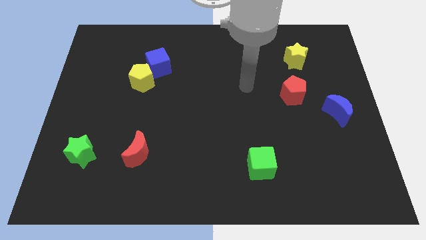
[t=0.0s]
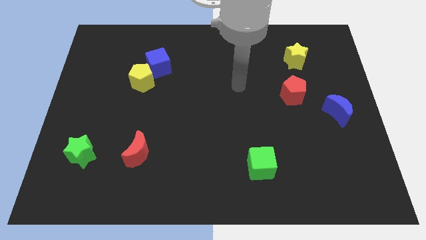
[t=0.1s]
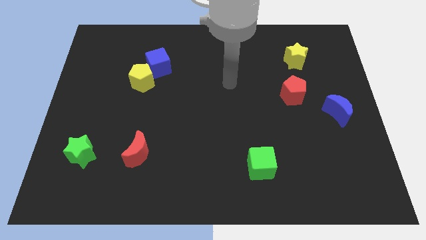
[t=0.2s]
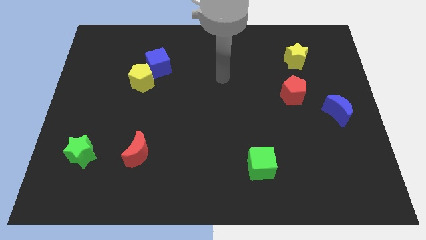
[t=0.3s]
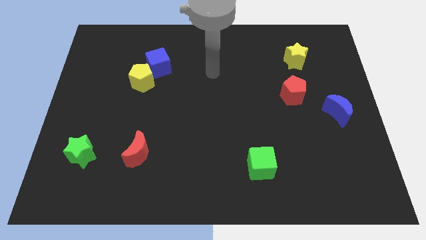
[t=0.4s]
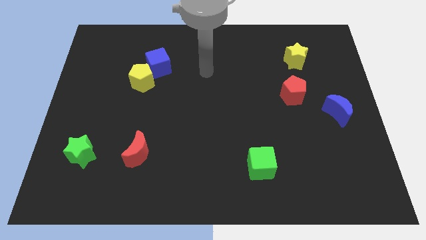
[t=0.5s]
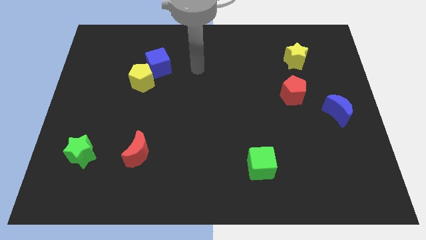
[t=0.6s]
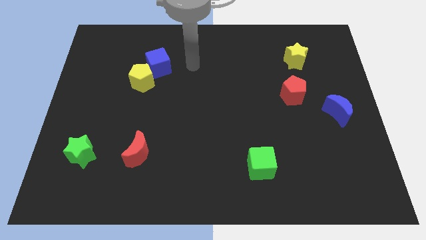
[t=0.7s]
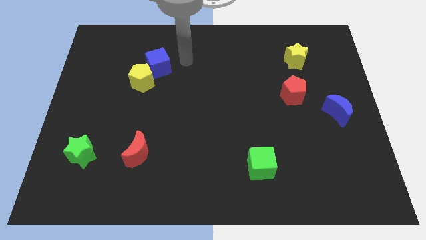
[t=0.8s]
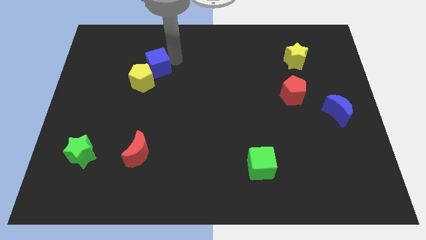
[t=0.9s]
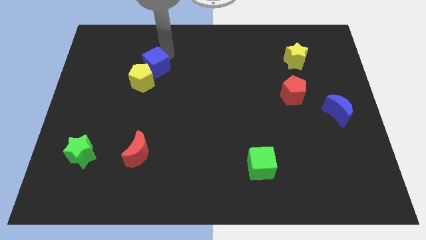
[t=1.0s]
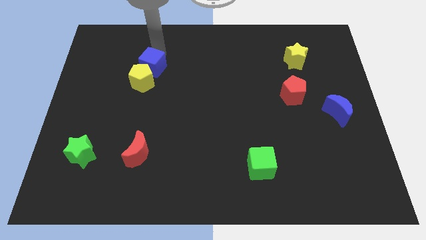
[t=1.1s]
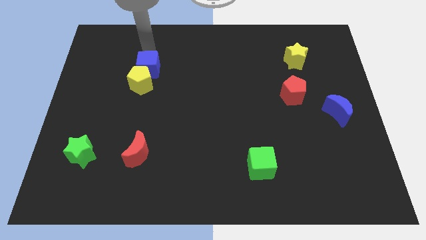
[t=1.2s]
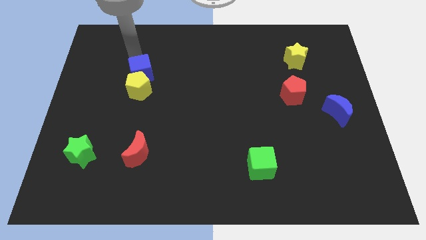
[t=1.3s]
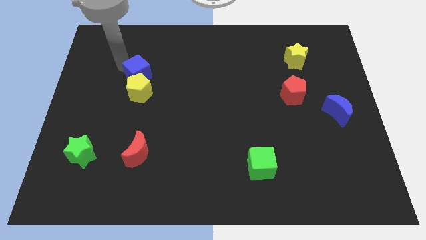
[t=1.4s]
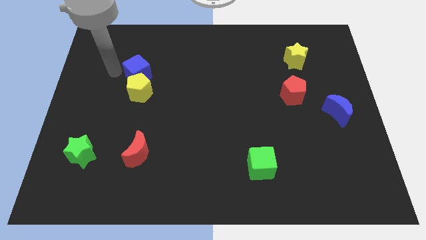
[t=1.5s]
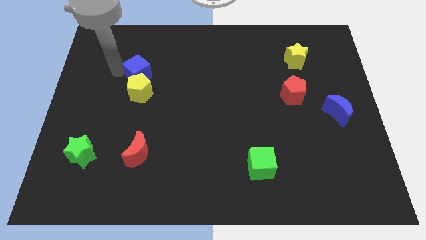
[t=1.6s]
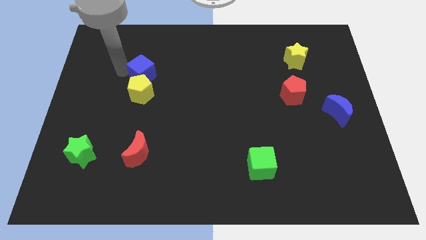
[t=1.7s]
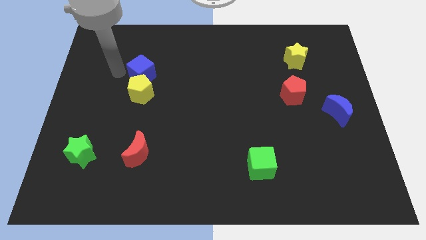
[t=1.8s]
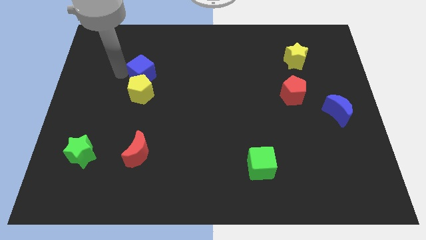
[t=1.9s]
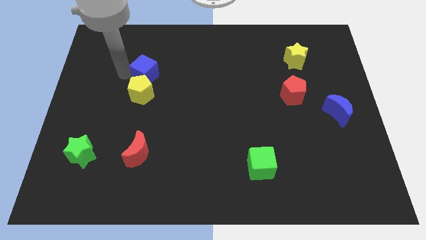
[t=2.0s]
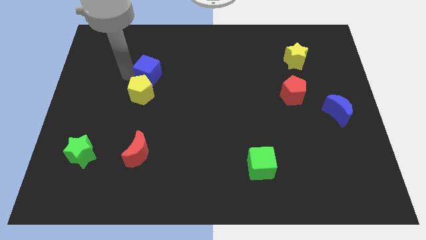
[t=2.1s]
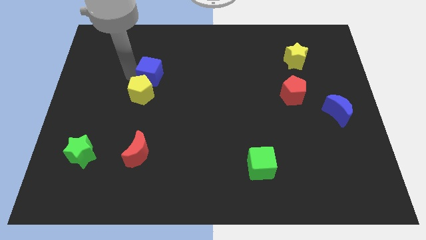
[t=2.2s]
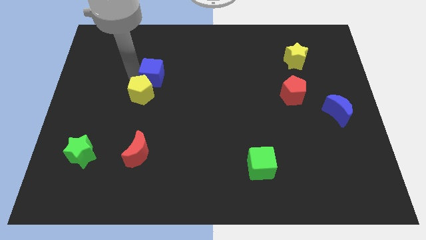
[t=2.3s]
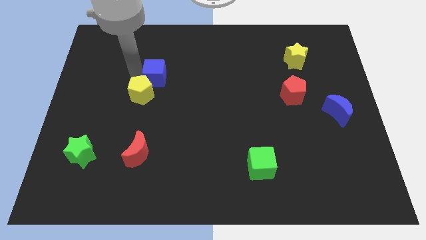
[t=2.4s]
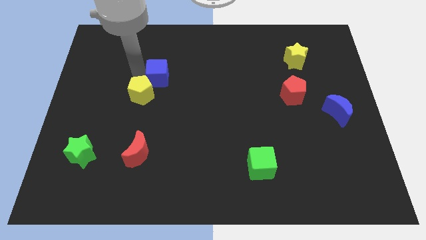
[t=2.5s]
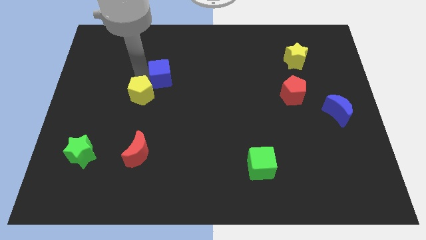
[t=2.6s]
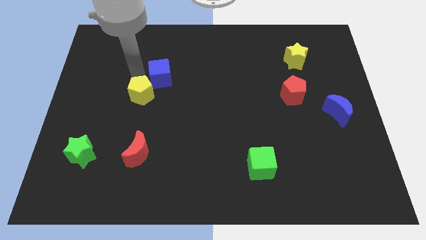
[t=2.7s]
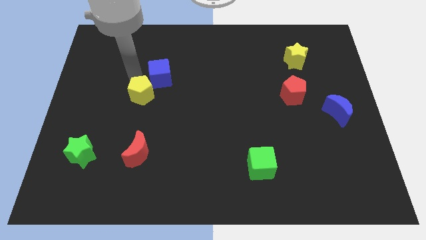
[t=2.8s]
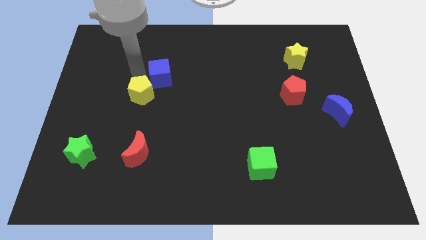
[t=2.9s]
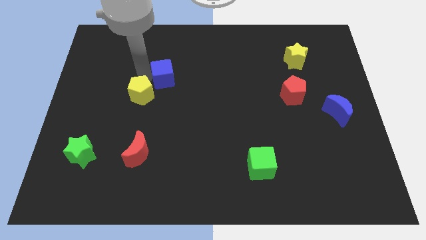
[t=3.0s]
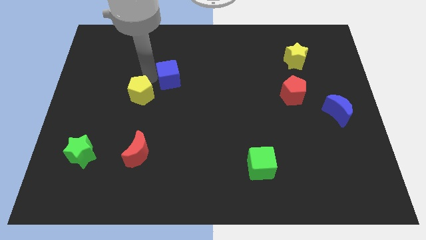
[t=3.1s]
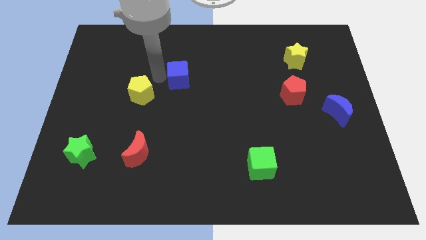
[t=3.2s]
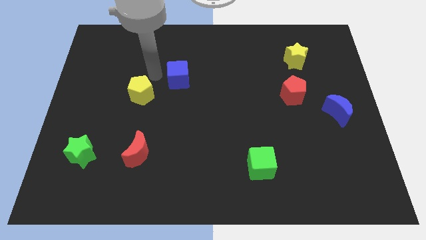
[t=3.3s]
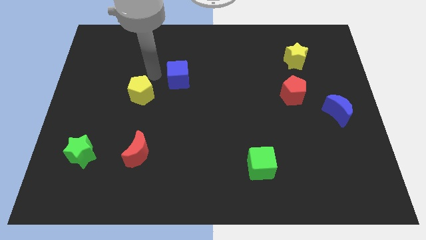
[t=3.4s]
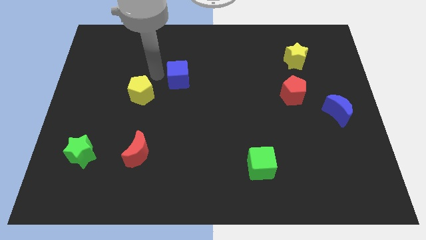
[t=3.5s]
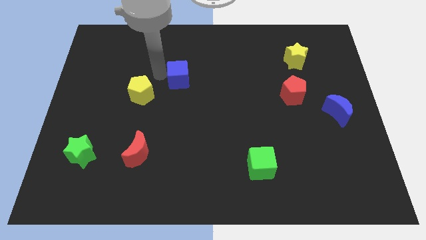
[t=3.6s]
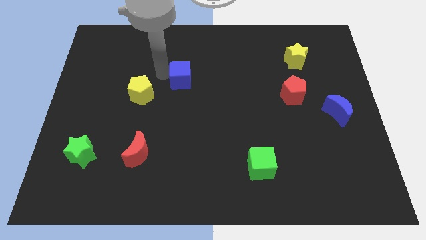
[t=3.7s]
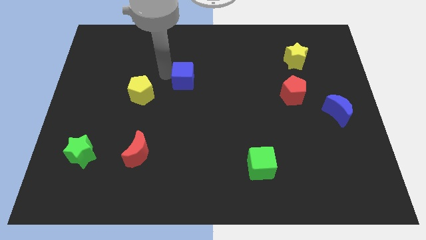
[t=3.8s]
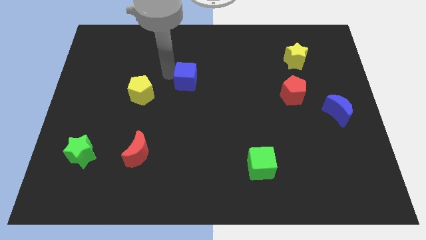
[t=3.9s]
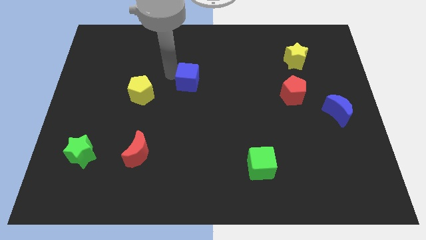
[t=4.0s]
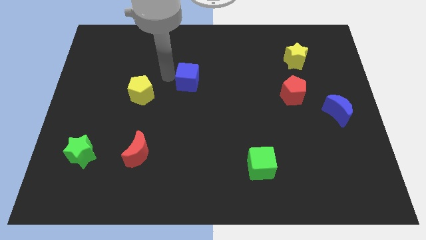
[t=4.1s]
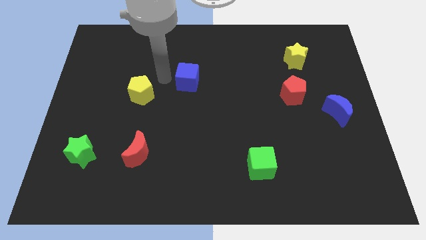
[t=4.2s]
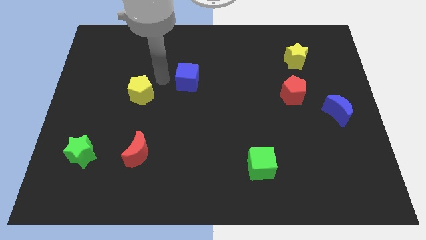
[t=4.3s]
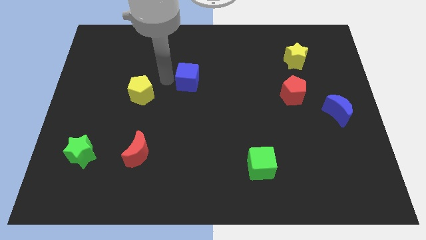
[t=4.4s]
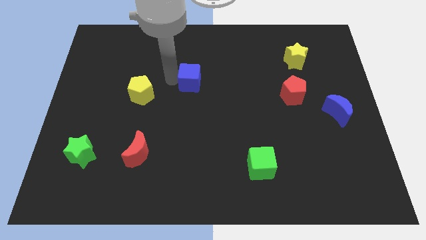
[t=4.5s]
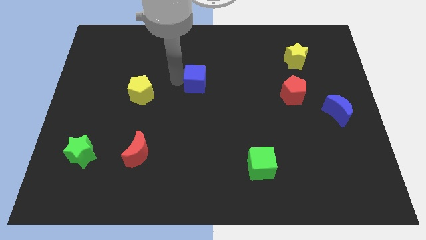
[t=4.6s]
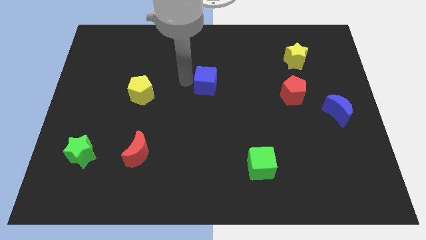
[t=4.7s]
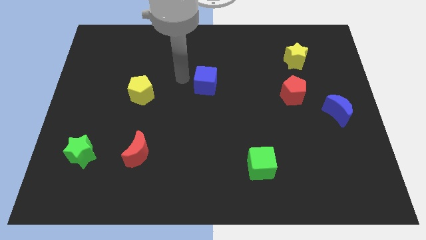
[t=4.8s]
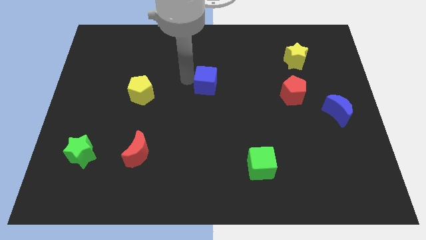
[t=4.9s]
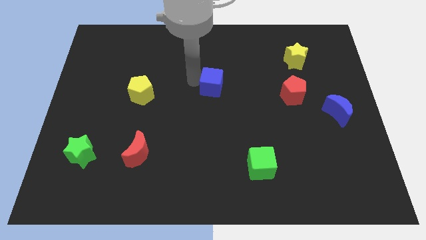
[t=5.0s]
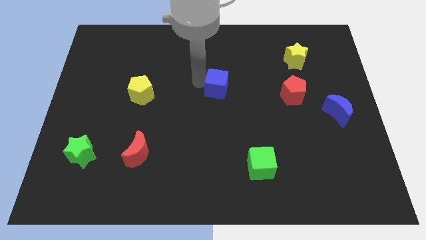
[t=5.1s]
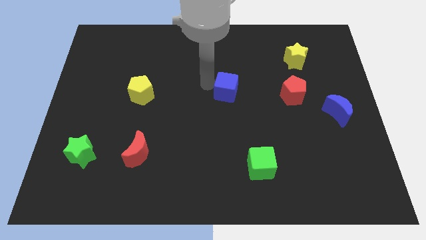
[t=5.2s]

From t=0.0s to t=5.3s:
slide the blue cube to the left side of the red pentagon

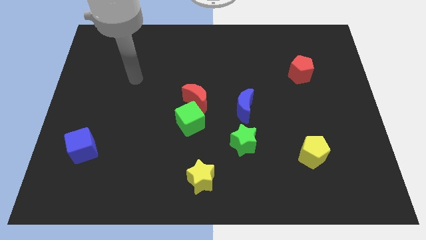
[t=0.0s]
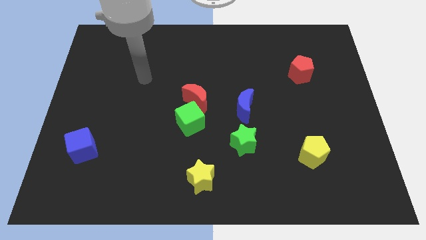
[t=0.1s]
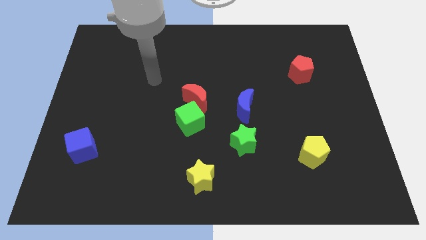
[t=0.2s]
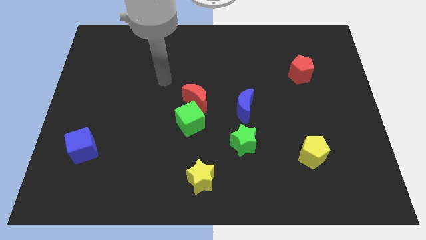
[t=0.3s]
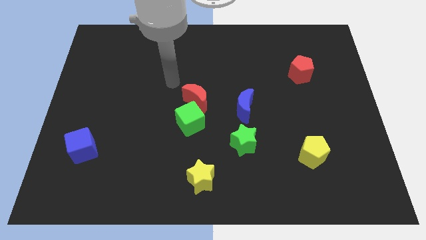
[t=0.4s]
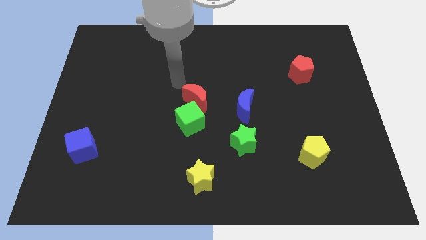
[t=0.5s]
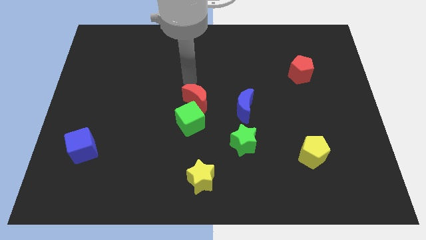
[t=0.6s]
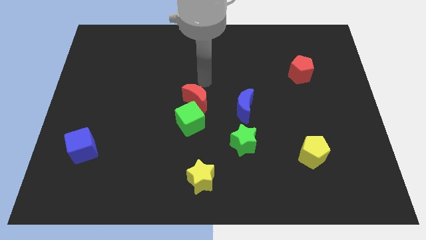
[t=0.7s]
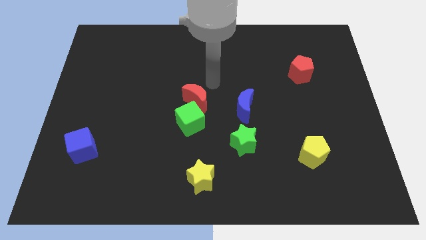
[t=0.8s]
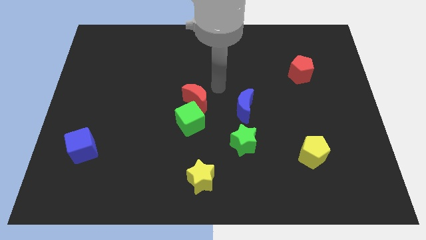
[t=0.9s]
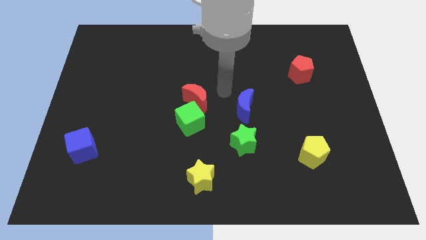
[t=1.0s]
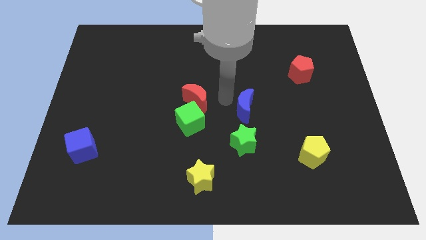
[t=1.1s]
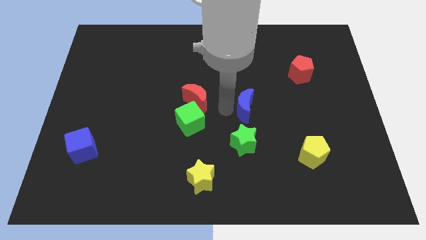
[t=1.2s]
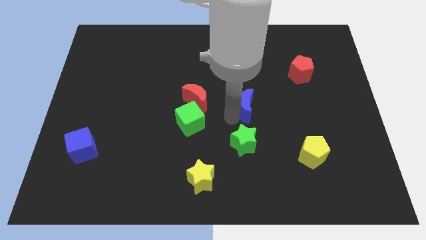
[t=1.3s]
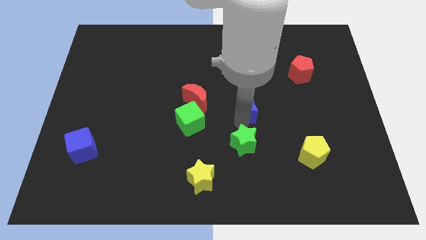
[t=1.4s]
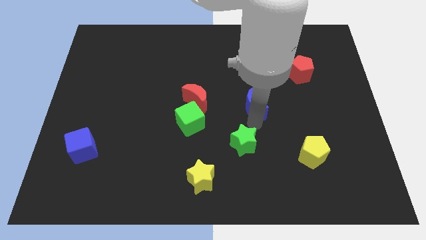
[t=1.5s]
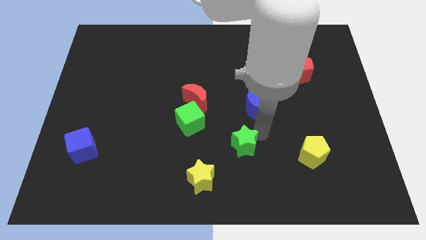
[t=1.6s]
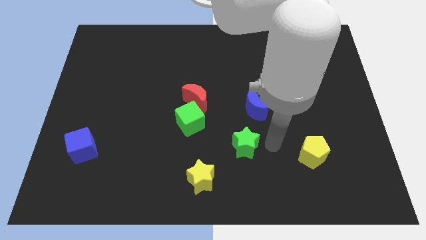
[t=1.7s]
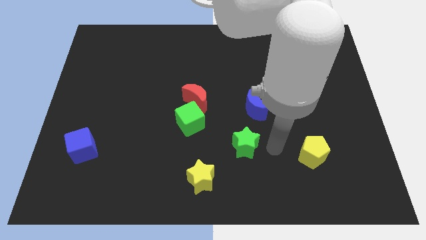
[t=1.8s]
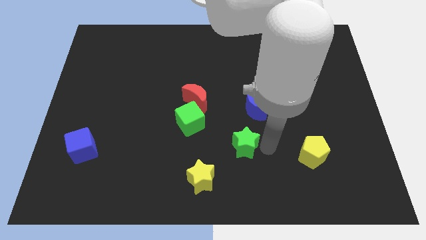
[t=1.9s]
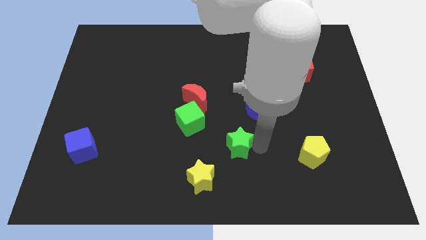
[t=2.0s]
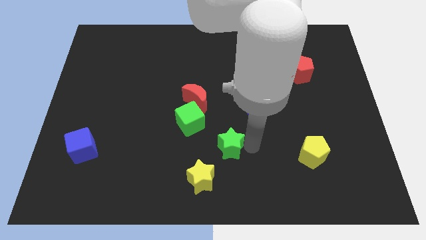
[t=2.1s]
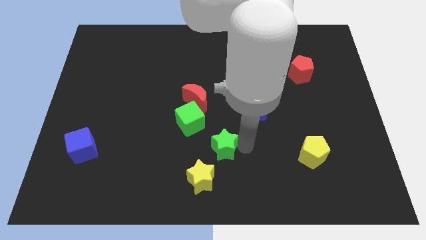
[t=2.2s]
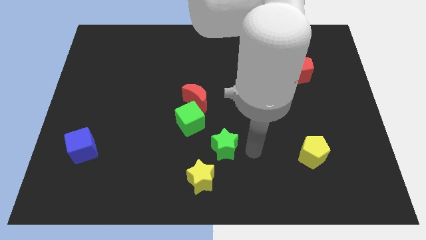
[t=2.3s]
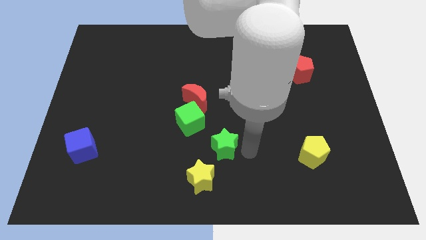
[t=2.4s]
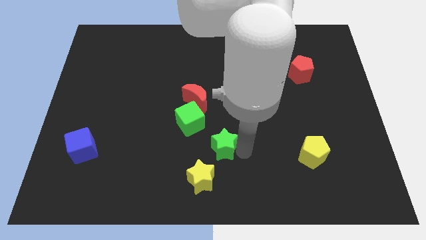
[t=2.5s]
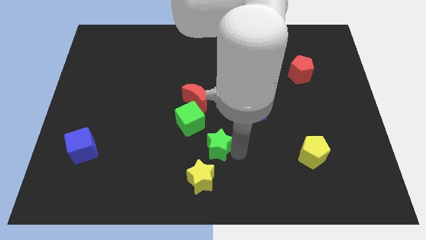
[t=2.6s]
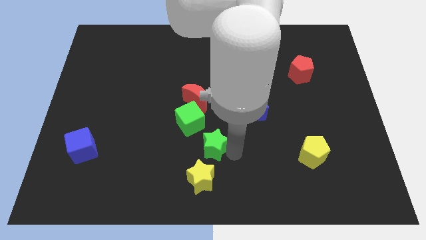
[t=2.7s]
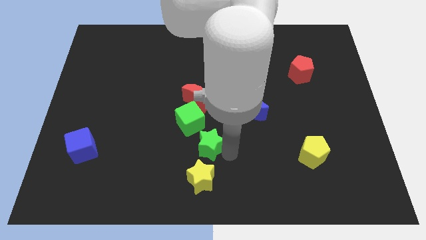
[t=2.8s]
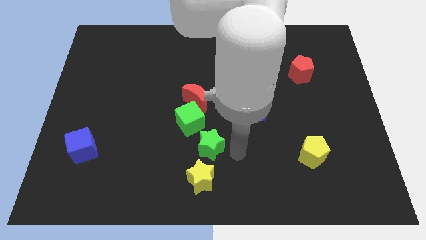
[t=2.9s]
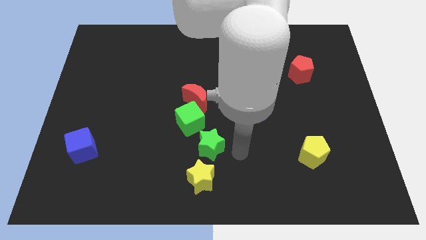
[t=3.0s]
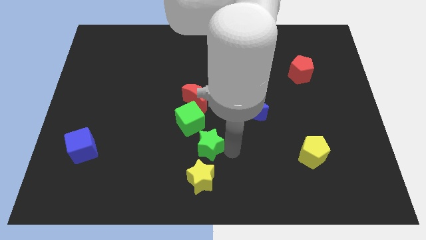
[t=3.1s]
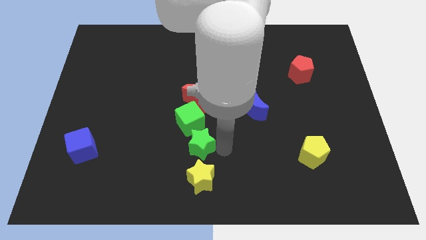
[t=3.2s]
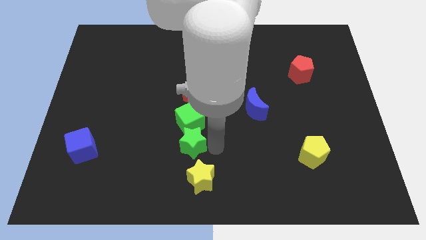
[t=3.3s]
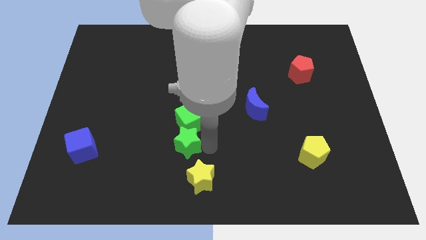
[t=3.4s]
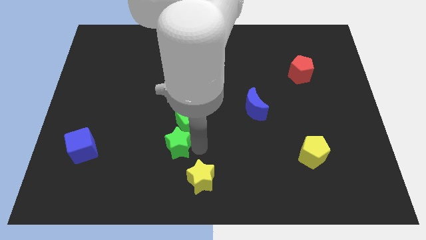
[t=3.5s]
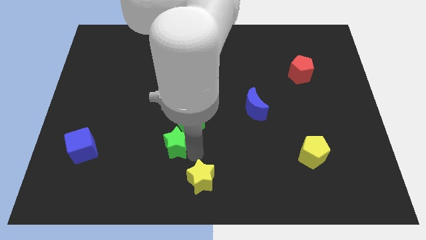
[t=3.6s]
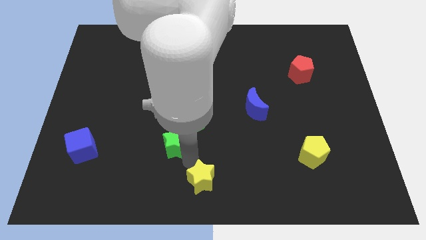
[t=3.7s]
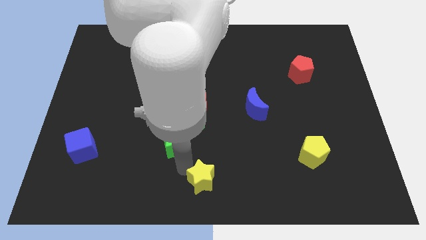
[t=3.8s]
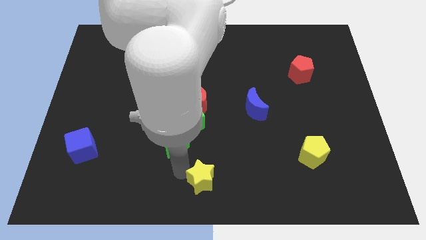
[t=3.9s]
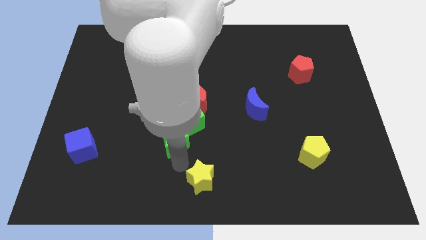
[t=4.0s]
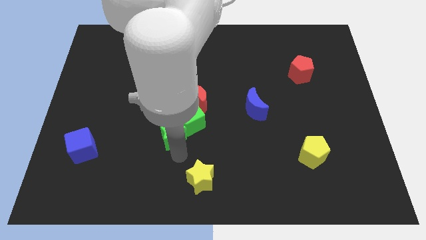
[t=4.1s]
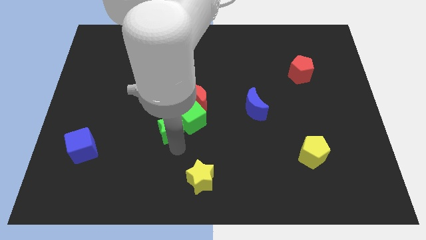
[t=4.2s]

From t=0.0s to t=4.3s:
slide the green star to the bottom left of the red moon
